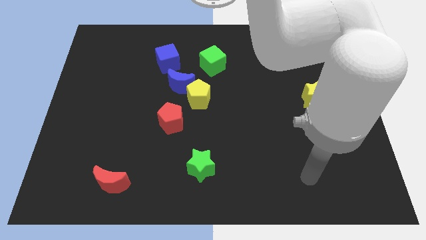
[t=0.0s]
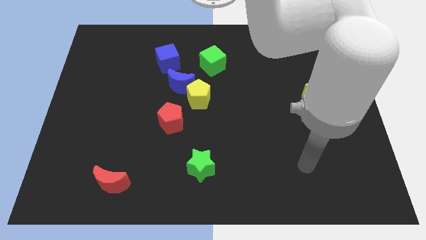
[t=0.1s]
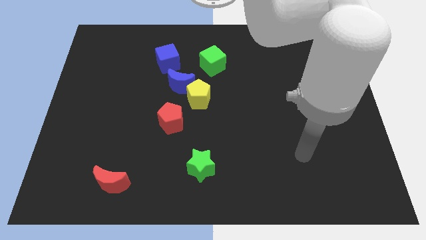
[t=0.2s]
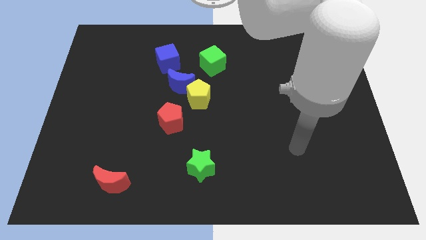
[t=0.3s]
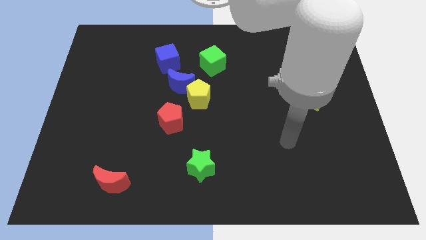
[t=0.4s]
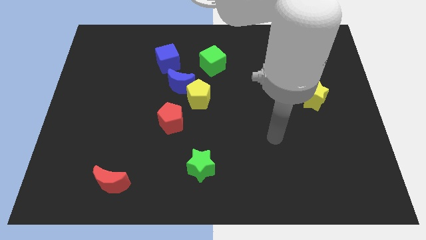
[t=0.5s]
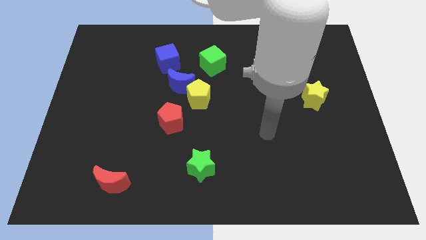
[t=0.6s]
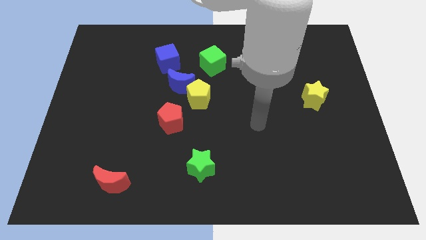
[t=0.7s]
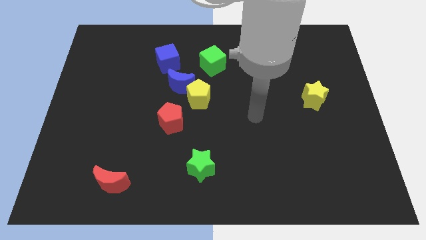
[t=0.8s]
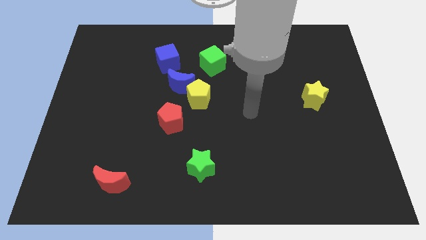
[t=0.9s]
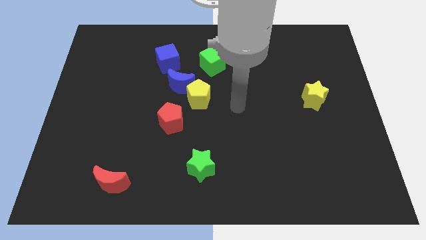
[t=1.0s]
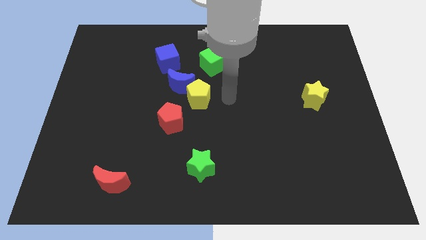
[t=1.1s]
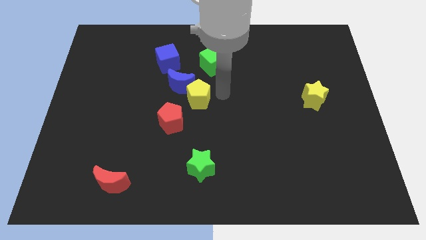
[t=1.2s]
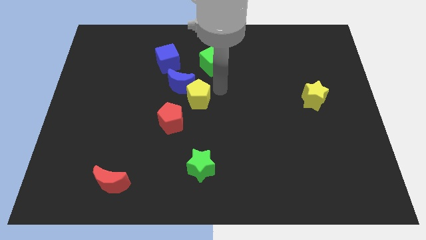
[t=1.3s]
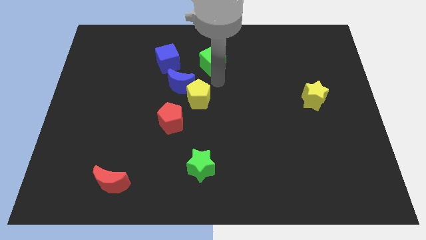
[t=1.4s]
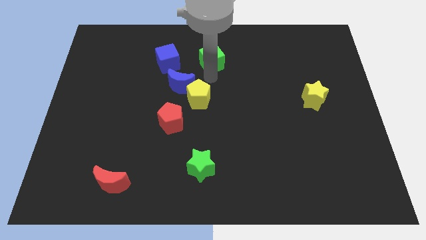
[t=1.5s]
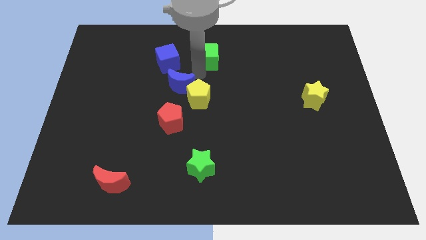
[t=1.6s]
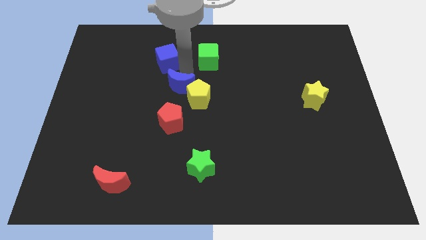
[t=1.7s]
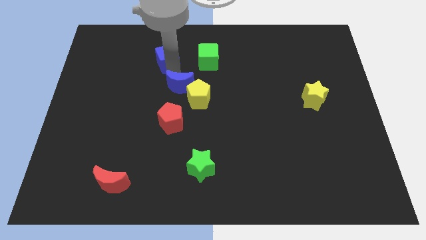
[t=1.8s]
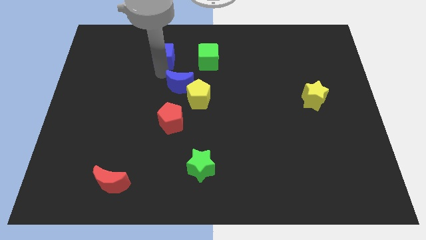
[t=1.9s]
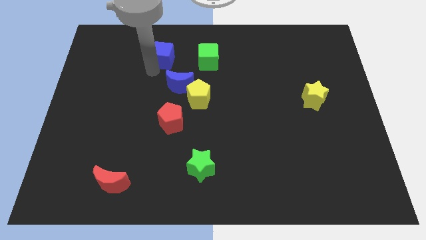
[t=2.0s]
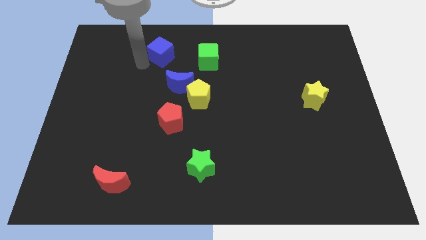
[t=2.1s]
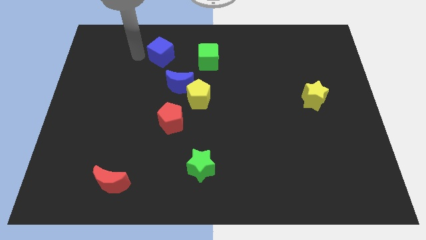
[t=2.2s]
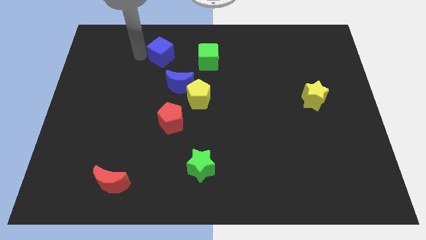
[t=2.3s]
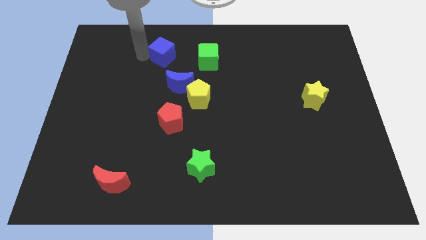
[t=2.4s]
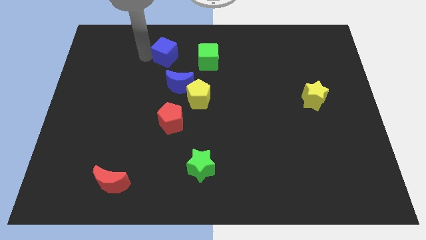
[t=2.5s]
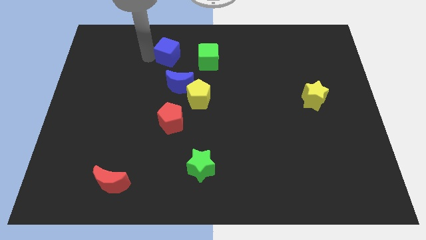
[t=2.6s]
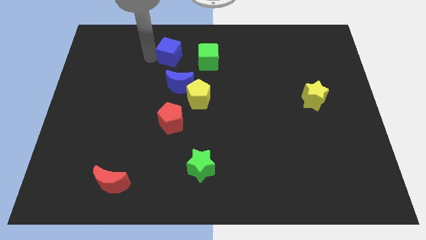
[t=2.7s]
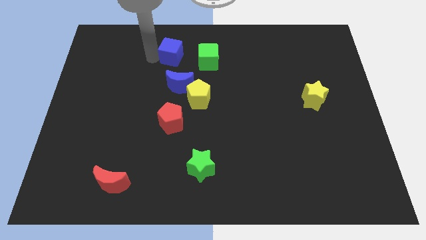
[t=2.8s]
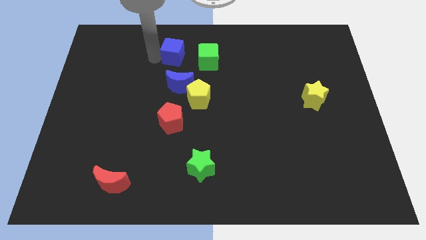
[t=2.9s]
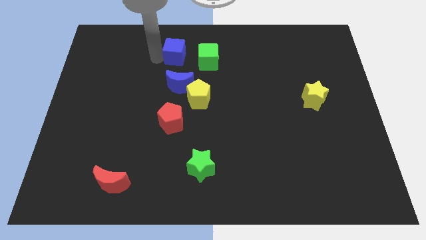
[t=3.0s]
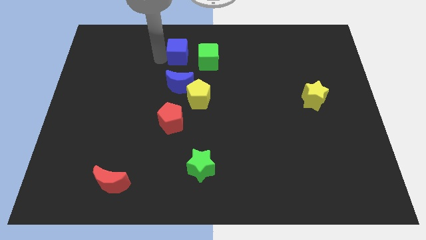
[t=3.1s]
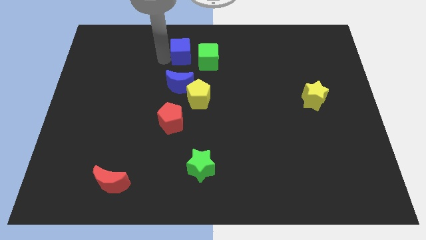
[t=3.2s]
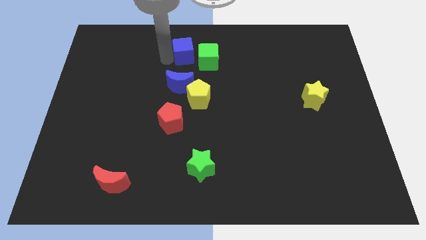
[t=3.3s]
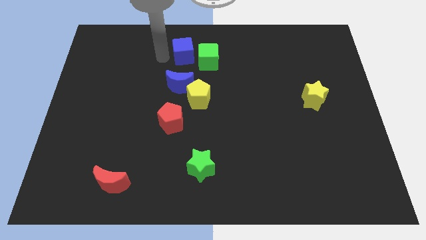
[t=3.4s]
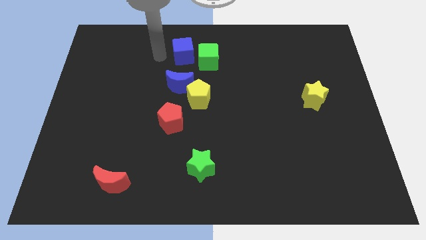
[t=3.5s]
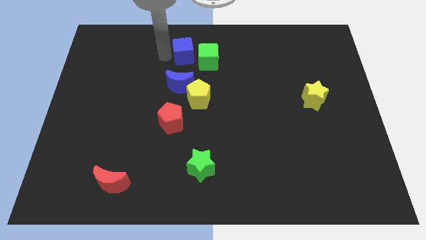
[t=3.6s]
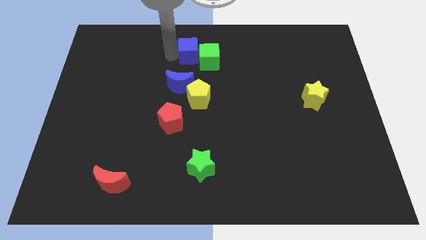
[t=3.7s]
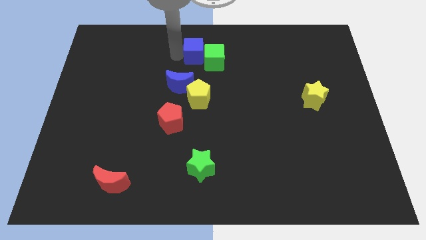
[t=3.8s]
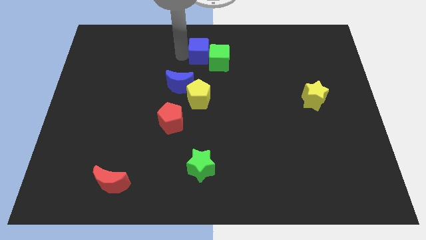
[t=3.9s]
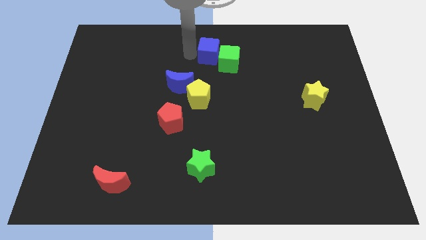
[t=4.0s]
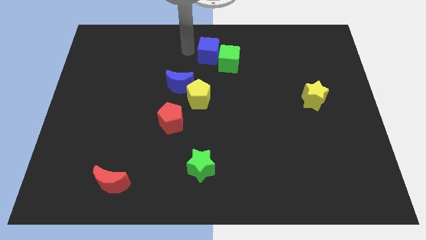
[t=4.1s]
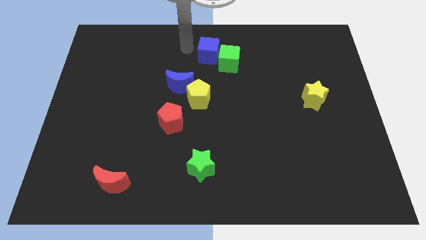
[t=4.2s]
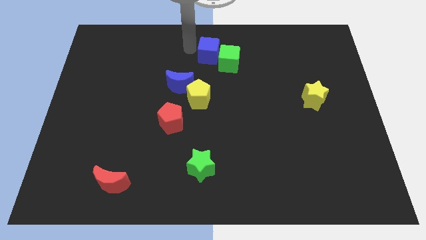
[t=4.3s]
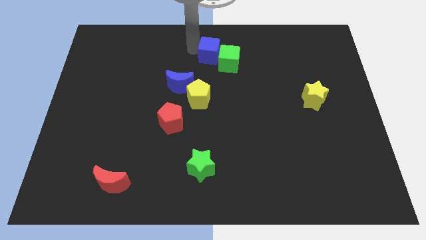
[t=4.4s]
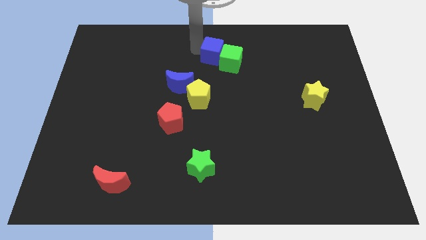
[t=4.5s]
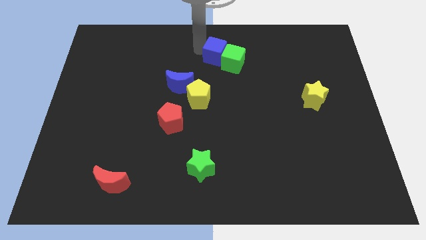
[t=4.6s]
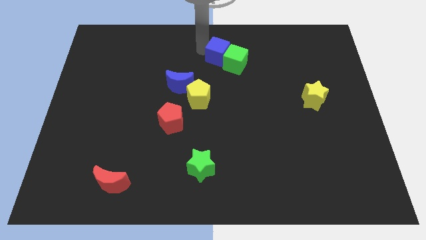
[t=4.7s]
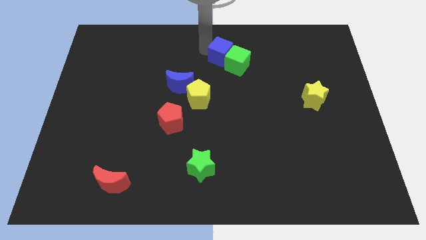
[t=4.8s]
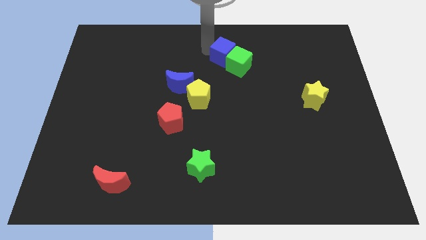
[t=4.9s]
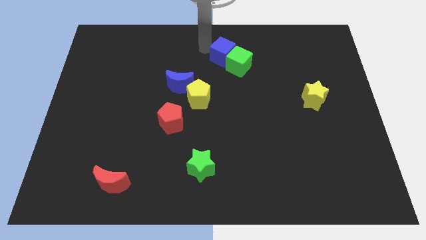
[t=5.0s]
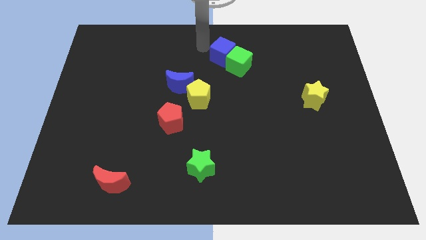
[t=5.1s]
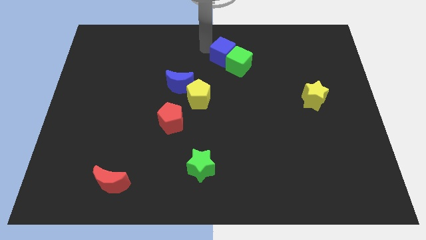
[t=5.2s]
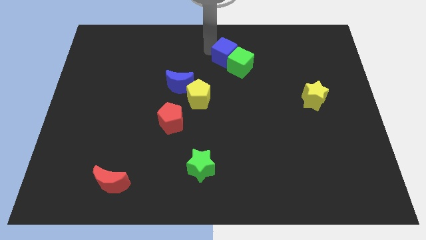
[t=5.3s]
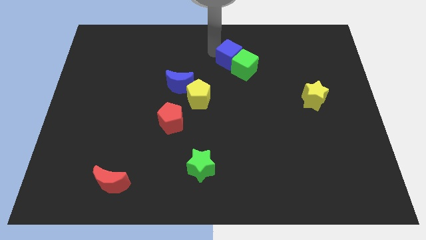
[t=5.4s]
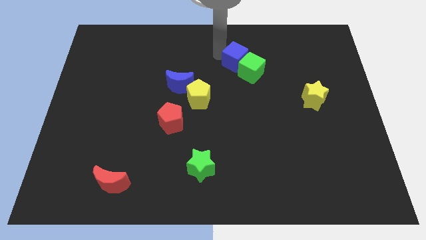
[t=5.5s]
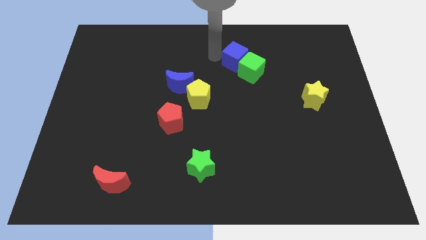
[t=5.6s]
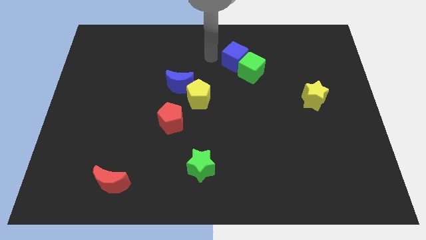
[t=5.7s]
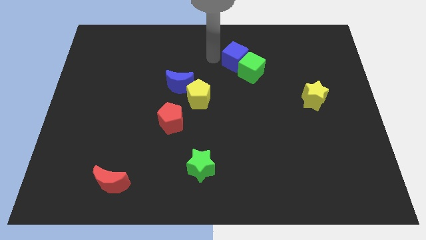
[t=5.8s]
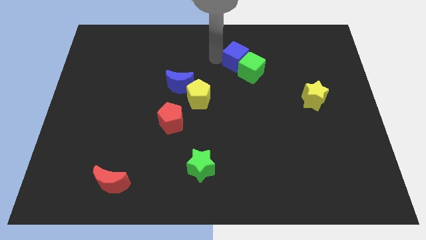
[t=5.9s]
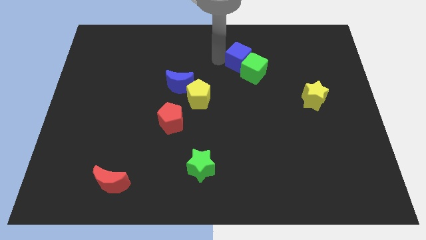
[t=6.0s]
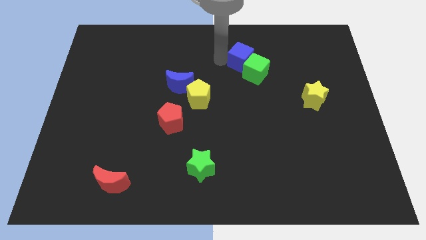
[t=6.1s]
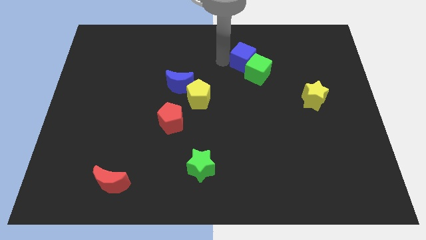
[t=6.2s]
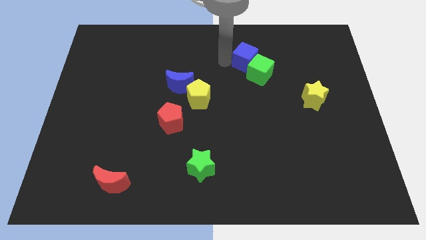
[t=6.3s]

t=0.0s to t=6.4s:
push the blue cube right

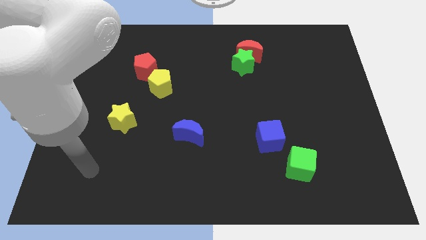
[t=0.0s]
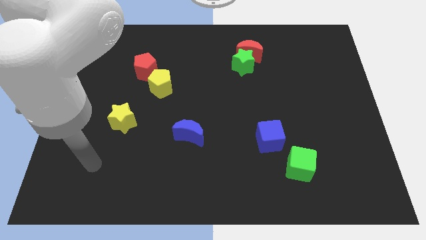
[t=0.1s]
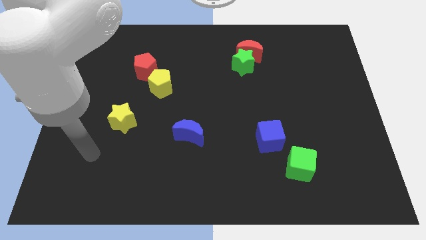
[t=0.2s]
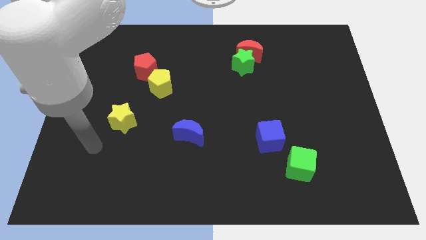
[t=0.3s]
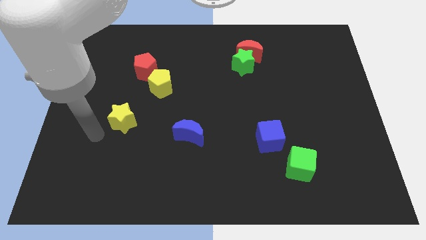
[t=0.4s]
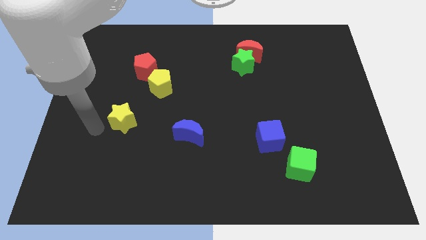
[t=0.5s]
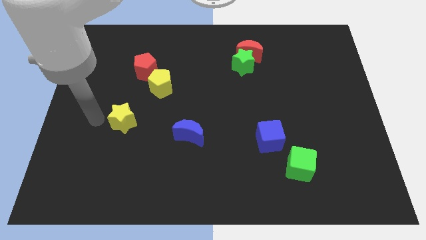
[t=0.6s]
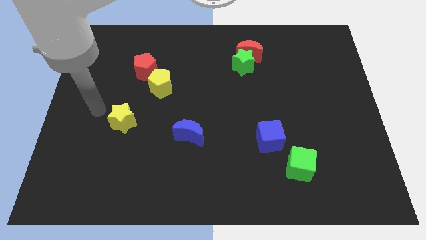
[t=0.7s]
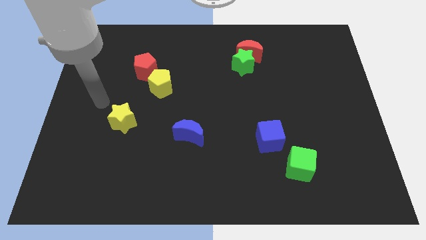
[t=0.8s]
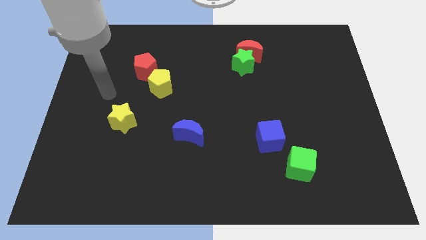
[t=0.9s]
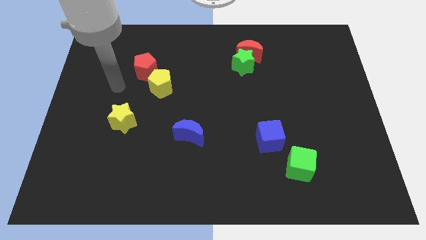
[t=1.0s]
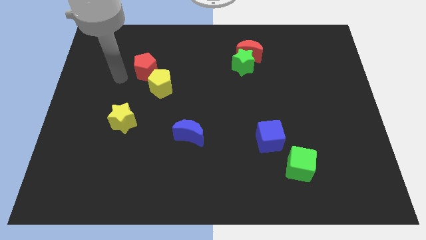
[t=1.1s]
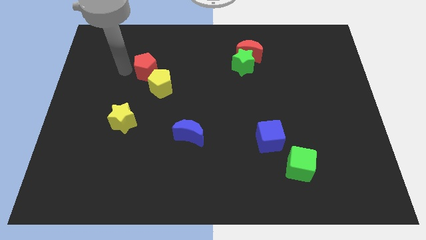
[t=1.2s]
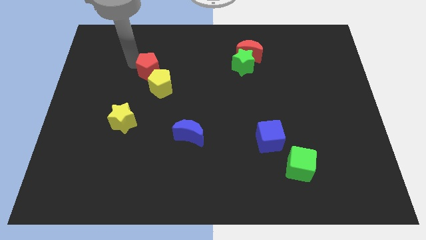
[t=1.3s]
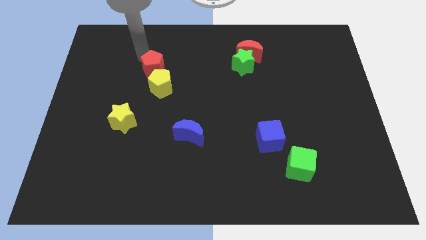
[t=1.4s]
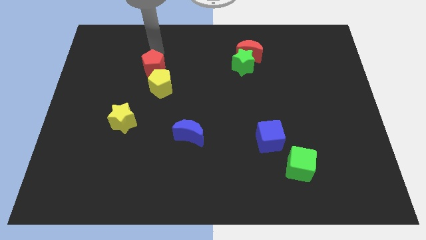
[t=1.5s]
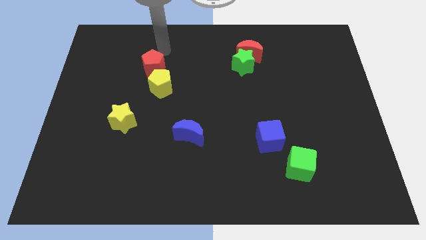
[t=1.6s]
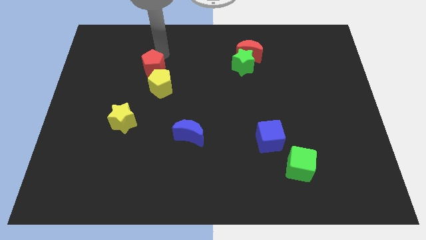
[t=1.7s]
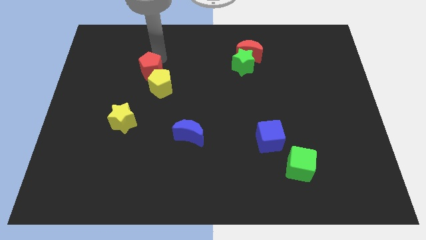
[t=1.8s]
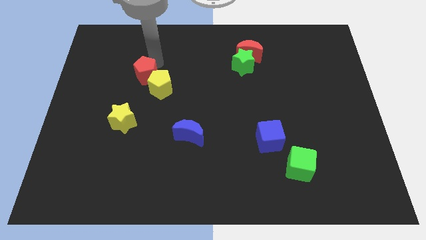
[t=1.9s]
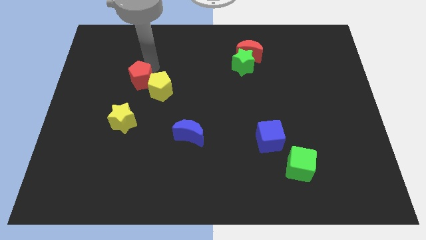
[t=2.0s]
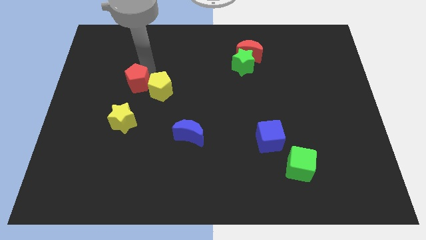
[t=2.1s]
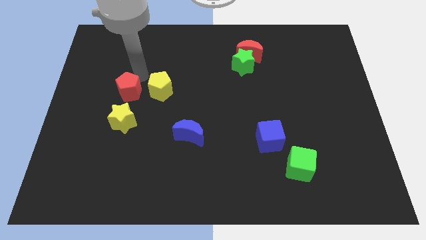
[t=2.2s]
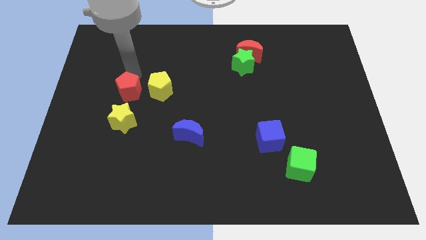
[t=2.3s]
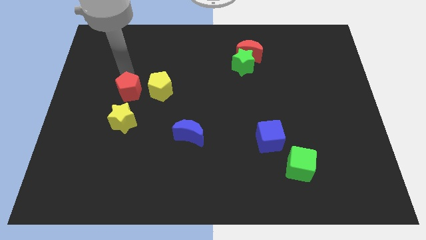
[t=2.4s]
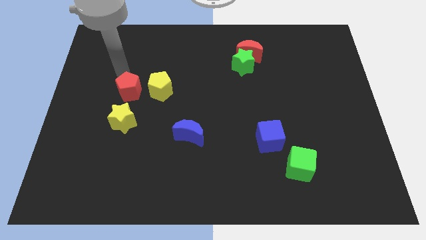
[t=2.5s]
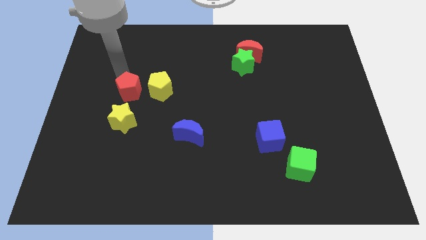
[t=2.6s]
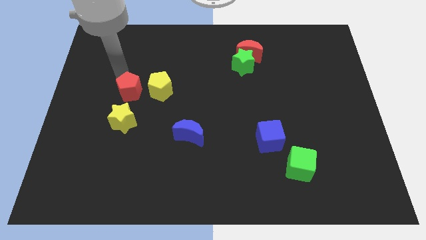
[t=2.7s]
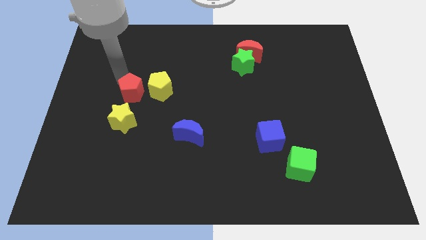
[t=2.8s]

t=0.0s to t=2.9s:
move the red pentagon a bit downwards
